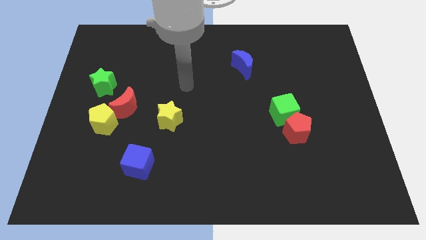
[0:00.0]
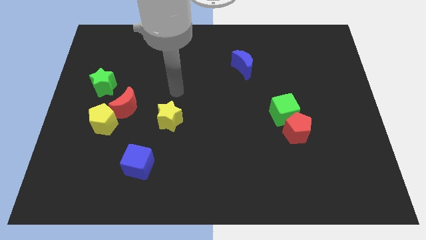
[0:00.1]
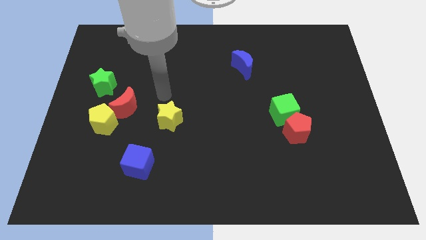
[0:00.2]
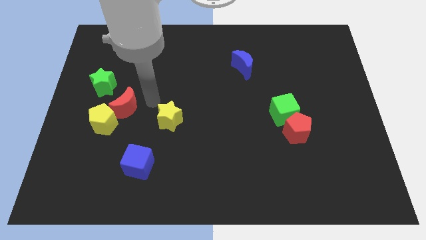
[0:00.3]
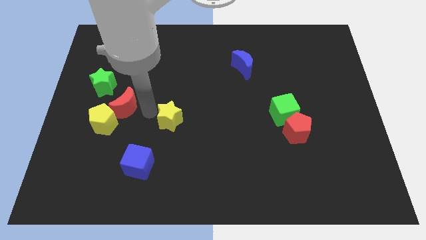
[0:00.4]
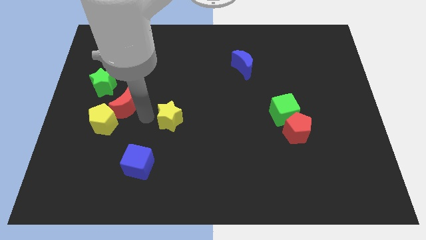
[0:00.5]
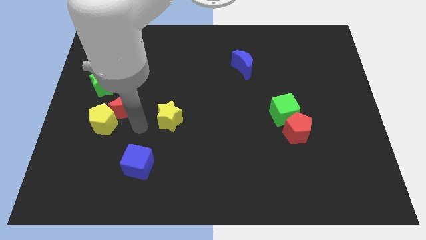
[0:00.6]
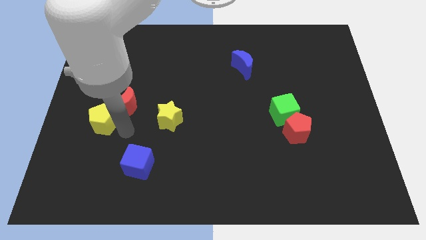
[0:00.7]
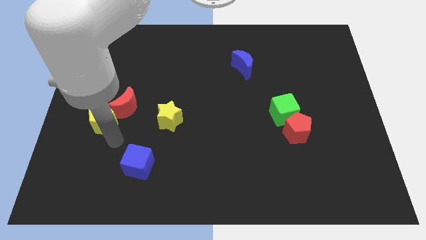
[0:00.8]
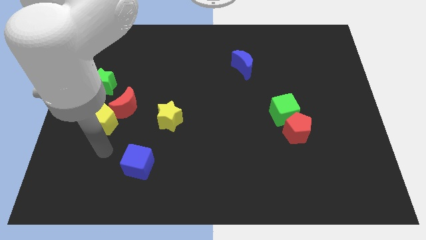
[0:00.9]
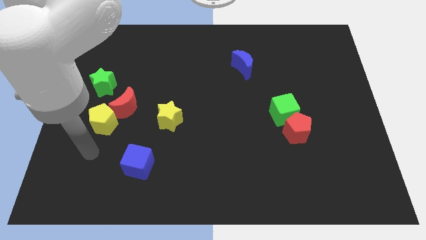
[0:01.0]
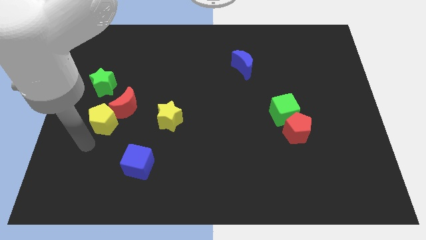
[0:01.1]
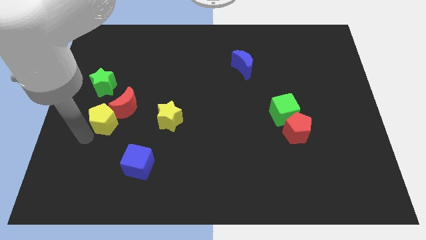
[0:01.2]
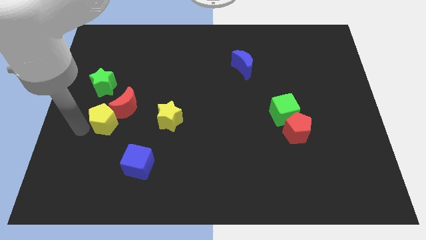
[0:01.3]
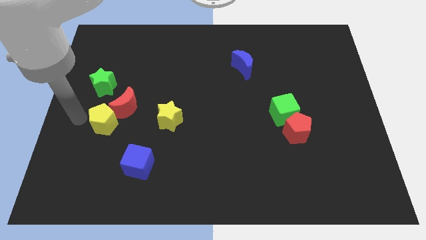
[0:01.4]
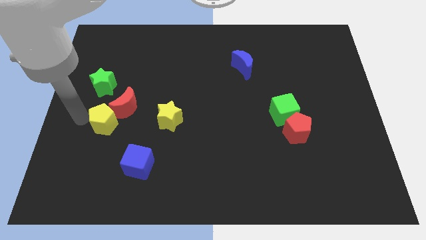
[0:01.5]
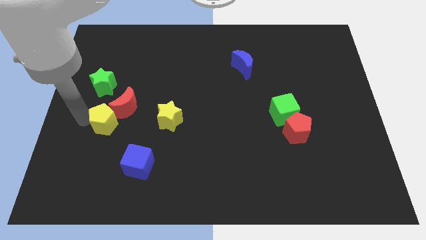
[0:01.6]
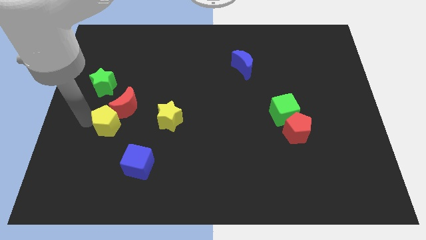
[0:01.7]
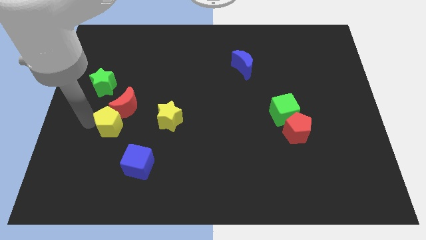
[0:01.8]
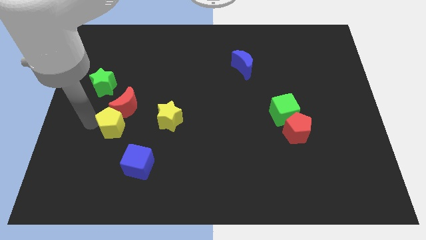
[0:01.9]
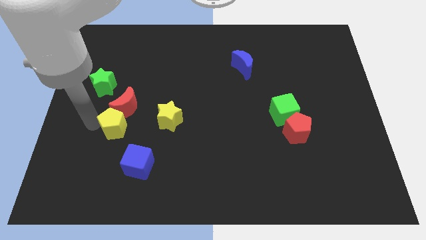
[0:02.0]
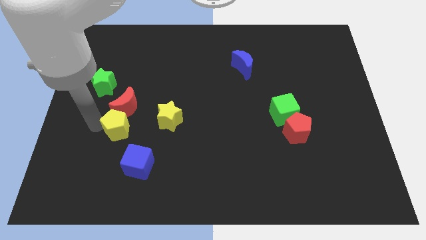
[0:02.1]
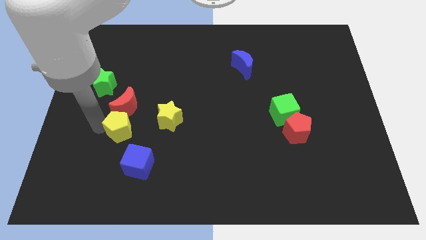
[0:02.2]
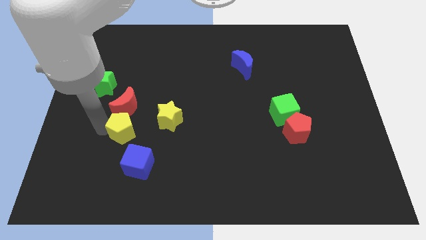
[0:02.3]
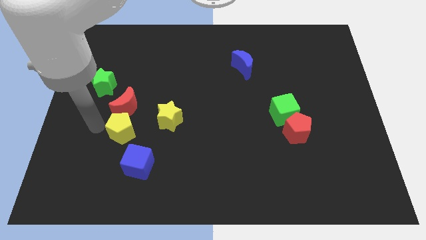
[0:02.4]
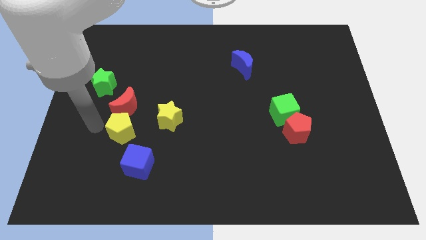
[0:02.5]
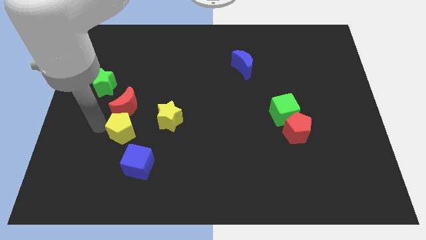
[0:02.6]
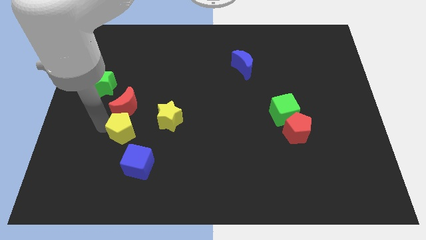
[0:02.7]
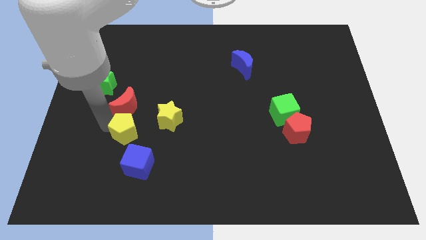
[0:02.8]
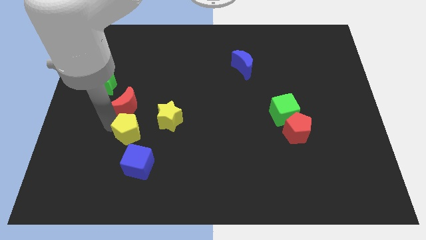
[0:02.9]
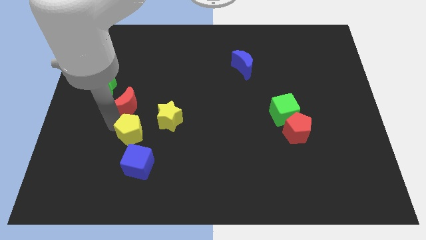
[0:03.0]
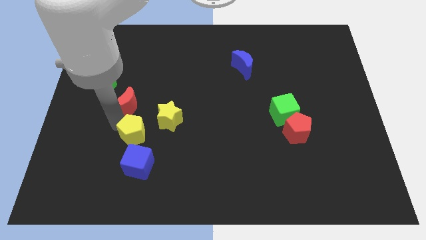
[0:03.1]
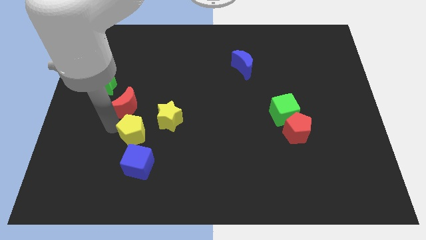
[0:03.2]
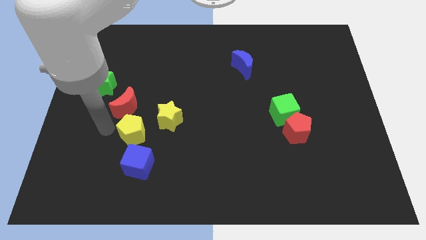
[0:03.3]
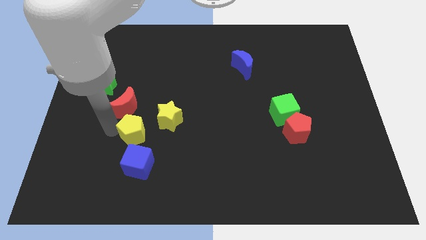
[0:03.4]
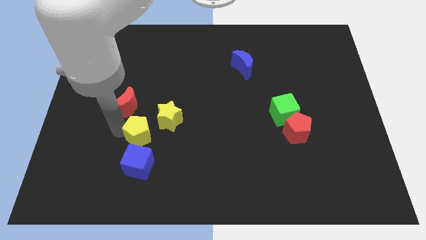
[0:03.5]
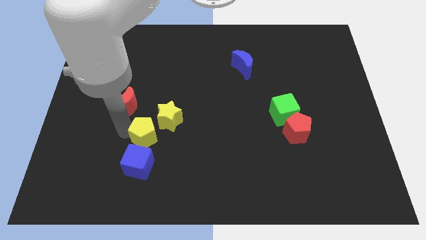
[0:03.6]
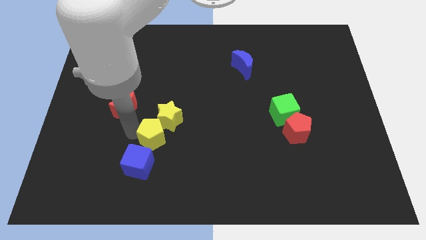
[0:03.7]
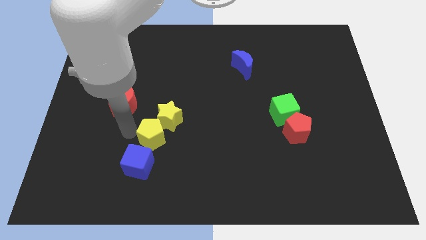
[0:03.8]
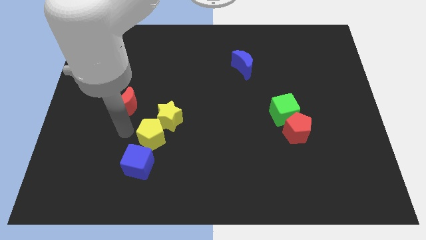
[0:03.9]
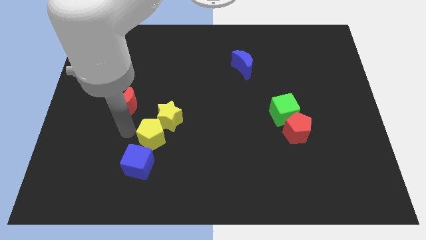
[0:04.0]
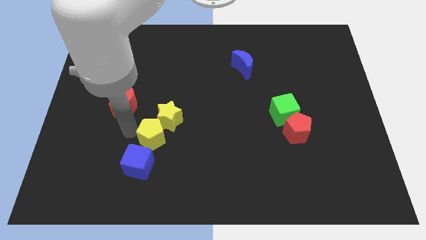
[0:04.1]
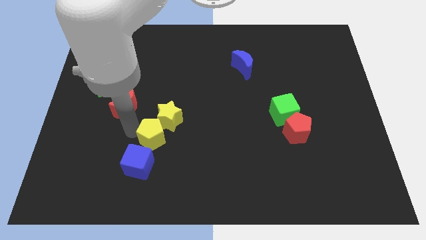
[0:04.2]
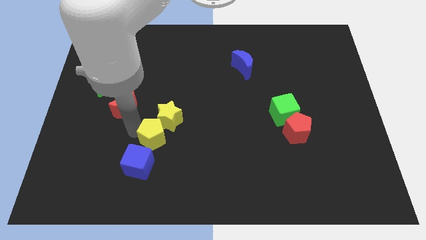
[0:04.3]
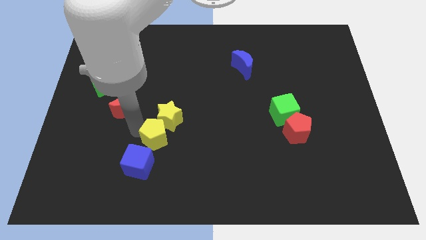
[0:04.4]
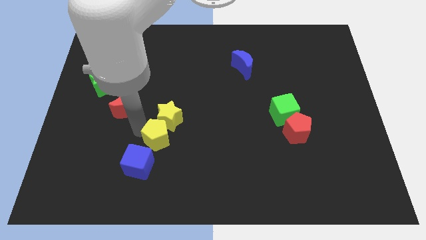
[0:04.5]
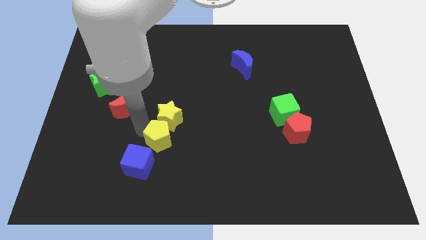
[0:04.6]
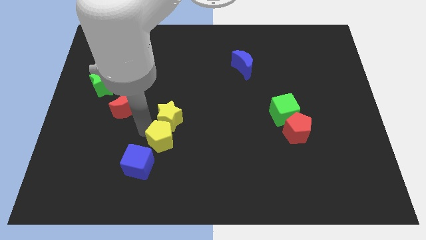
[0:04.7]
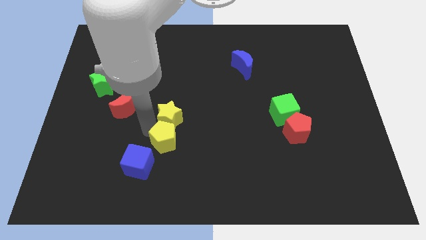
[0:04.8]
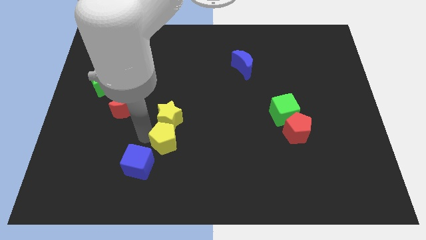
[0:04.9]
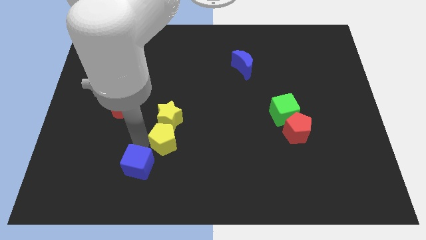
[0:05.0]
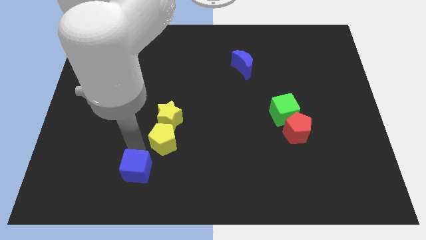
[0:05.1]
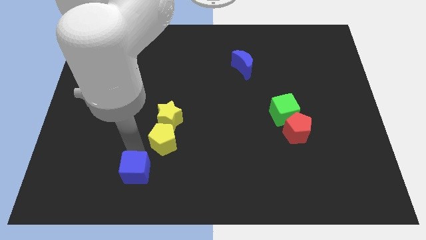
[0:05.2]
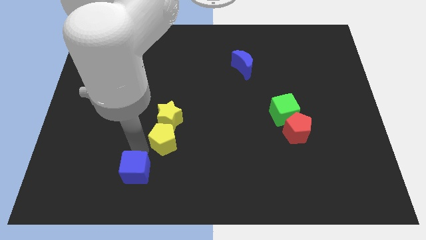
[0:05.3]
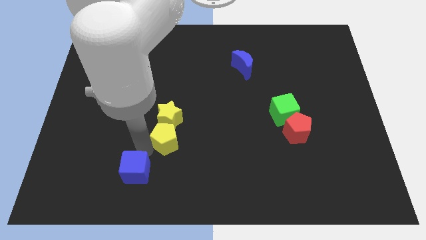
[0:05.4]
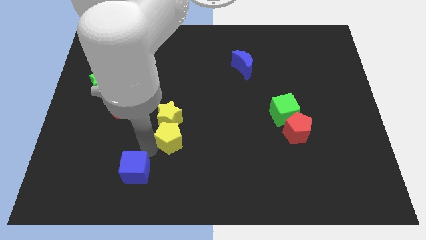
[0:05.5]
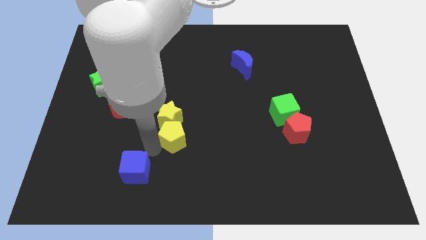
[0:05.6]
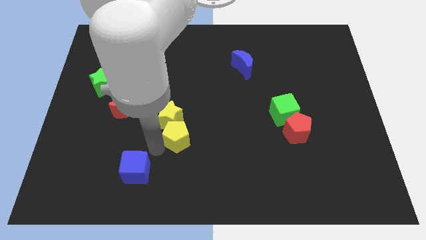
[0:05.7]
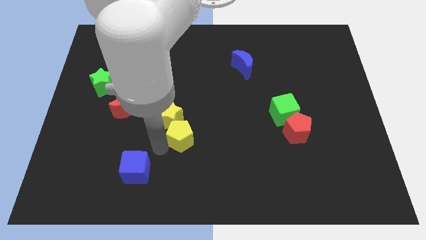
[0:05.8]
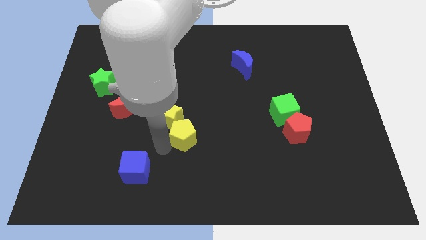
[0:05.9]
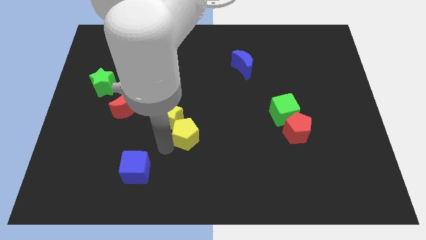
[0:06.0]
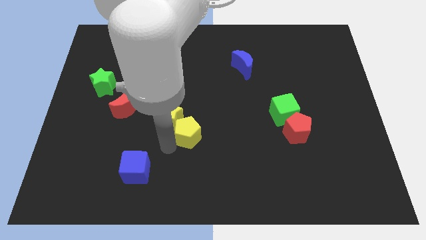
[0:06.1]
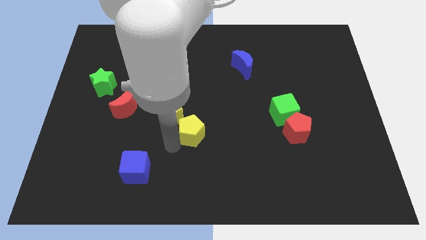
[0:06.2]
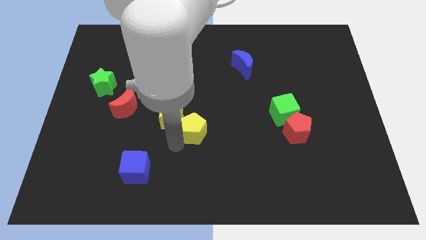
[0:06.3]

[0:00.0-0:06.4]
slide the yellow pentagon right

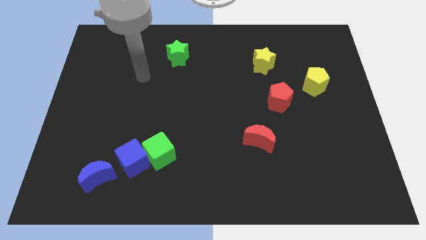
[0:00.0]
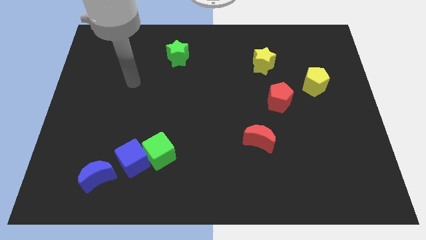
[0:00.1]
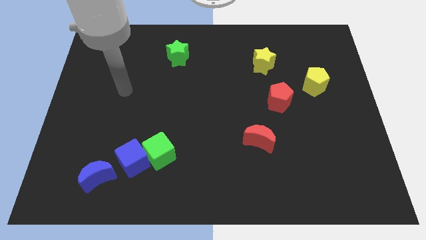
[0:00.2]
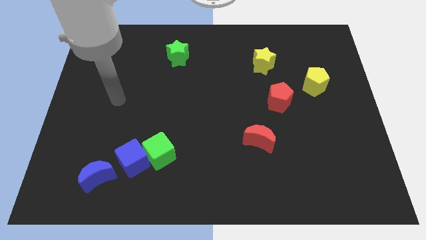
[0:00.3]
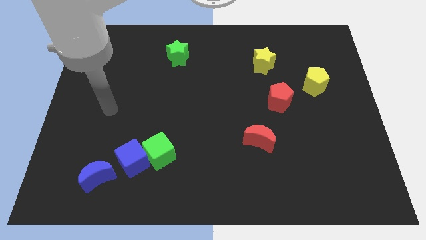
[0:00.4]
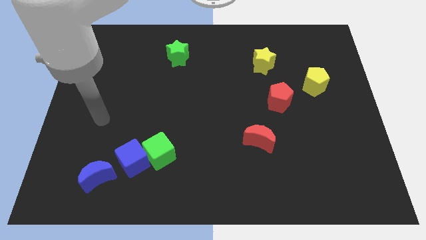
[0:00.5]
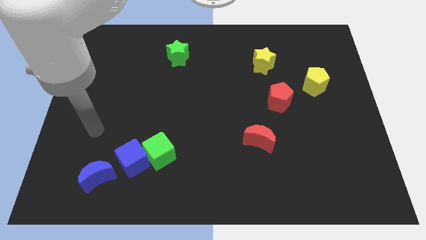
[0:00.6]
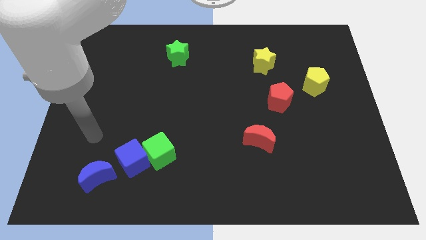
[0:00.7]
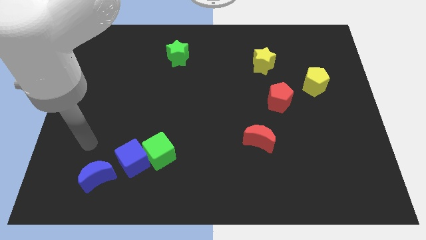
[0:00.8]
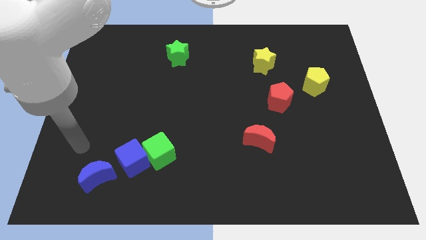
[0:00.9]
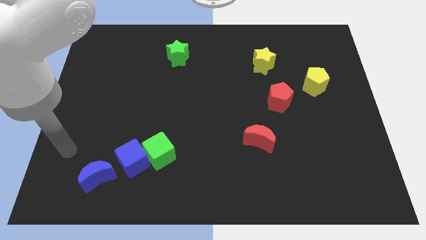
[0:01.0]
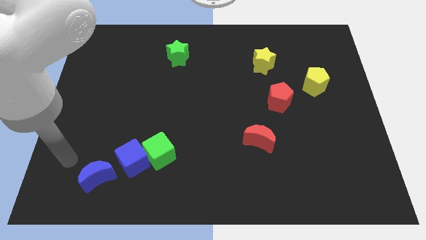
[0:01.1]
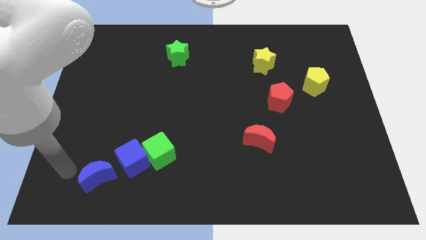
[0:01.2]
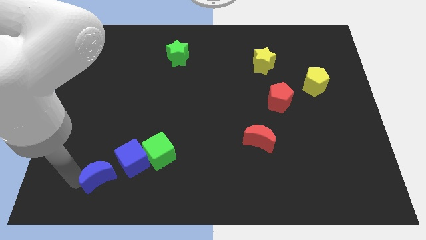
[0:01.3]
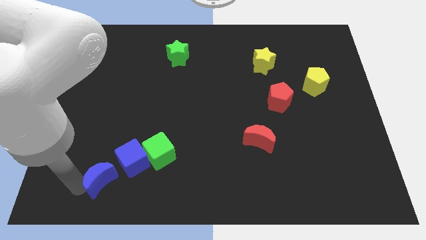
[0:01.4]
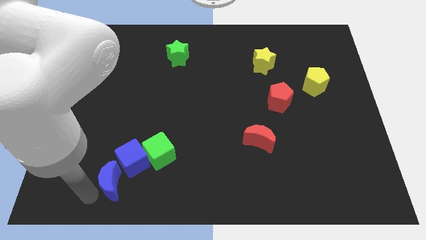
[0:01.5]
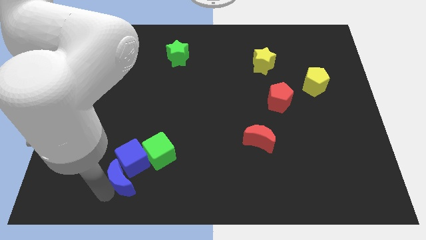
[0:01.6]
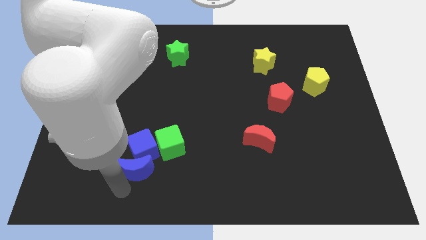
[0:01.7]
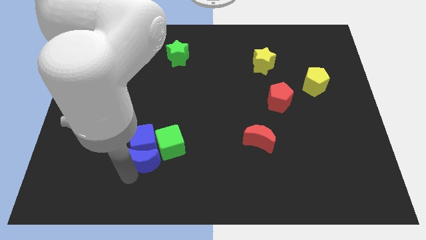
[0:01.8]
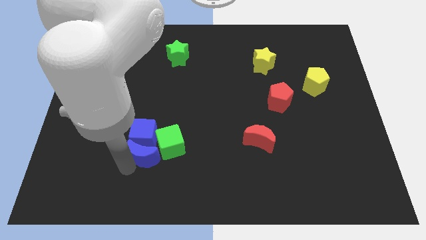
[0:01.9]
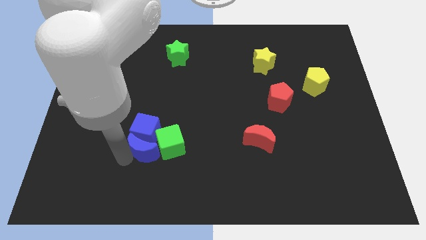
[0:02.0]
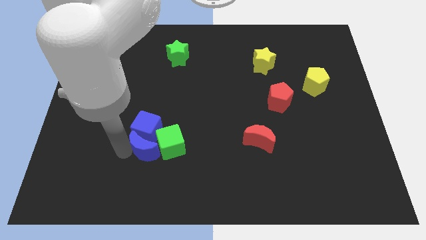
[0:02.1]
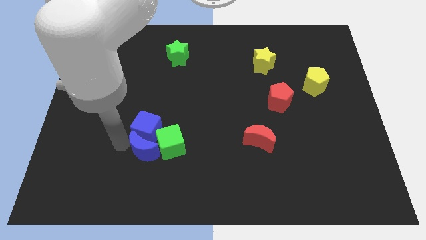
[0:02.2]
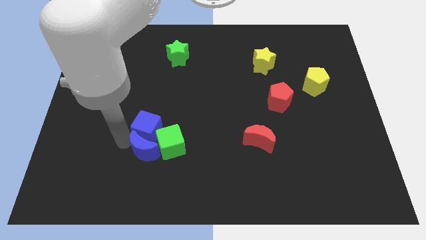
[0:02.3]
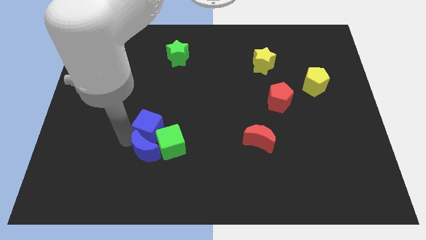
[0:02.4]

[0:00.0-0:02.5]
push the blue cube a bit diagonally upwards and right
